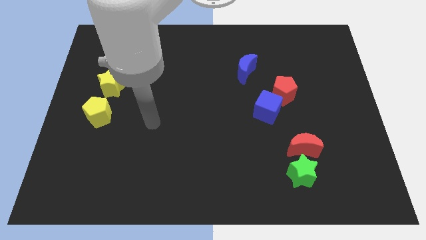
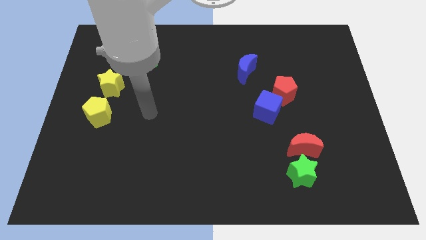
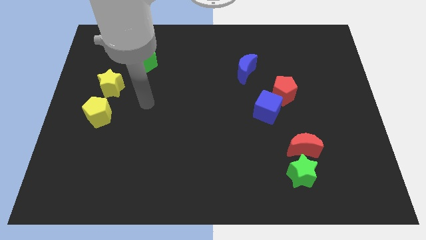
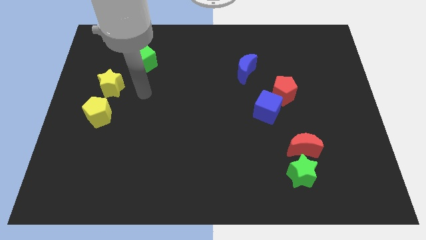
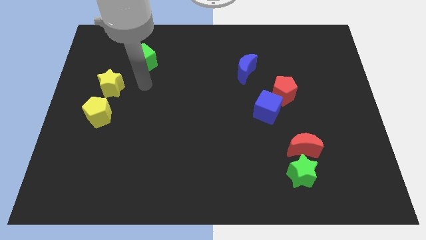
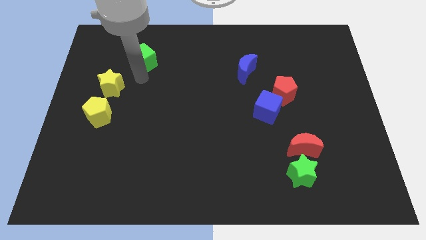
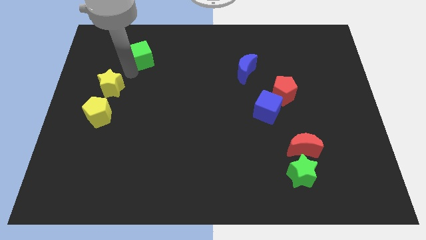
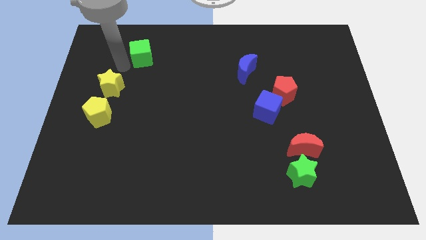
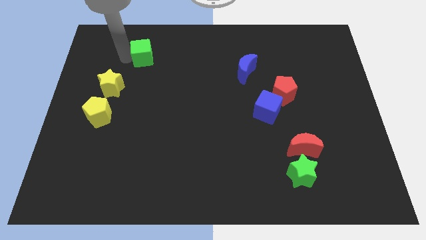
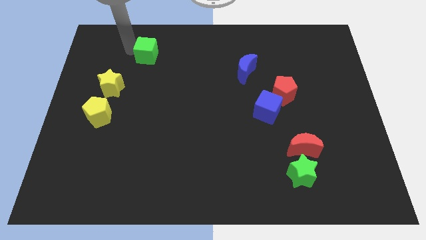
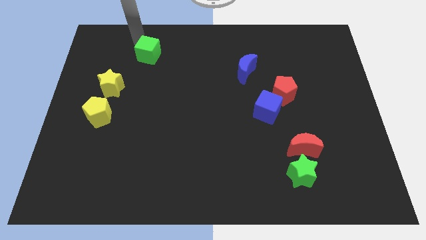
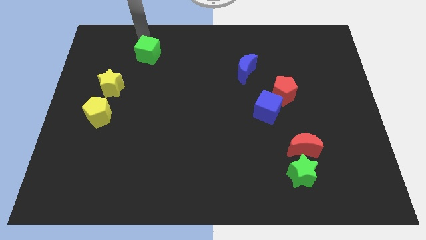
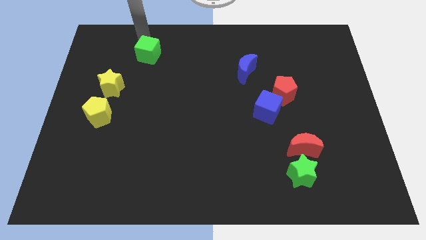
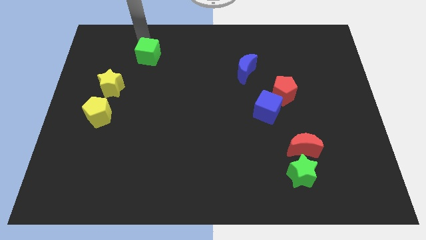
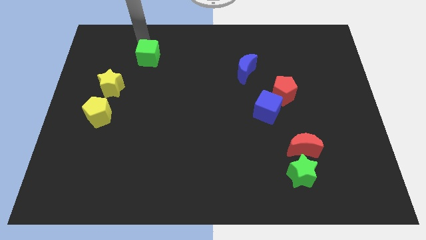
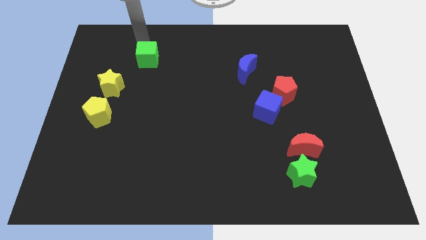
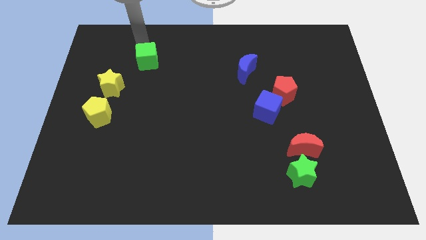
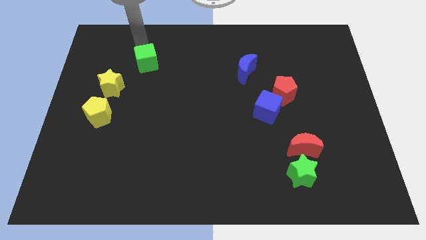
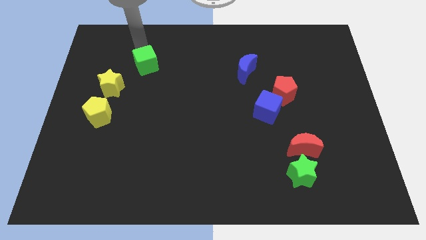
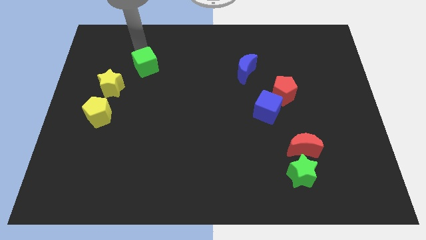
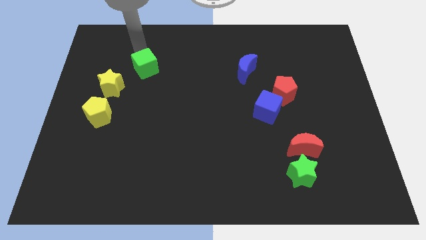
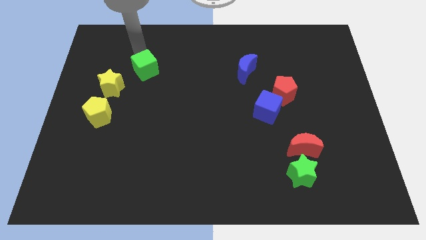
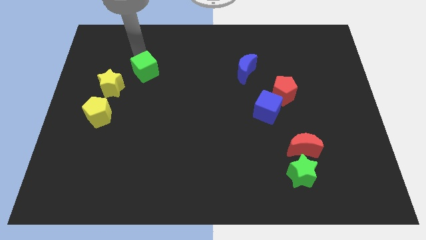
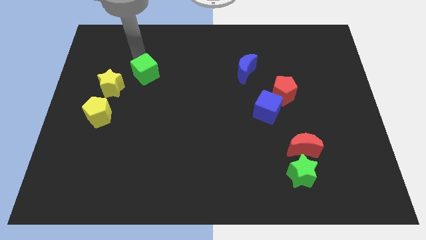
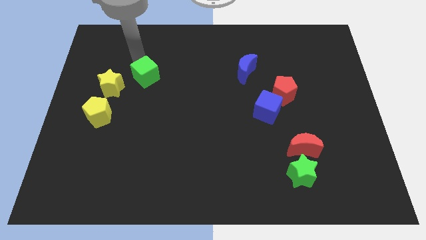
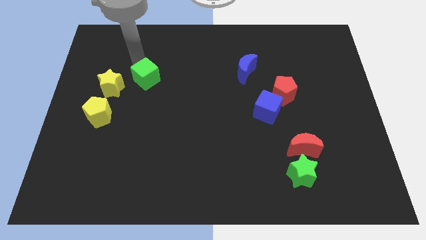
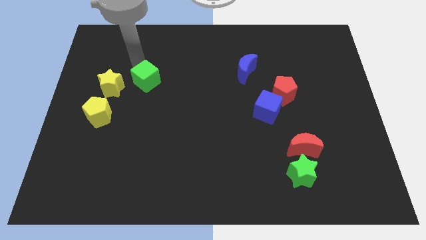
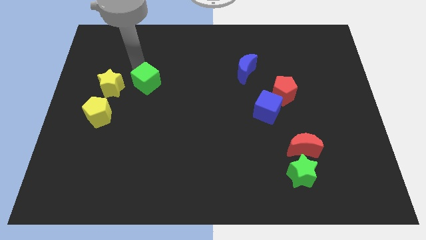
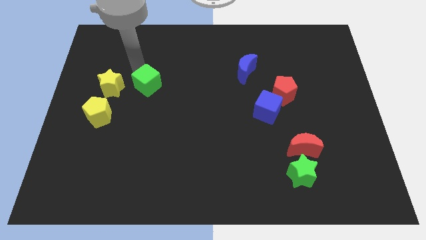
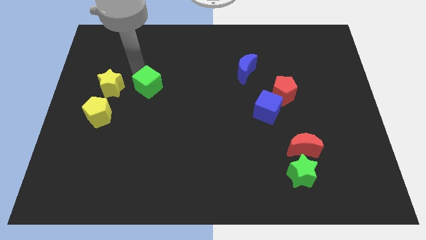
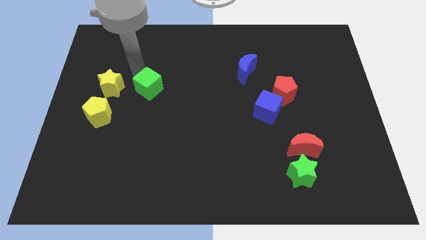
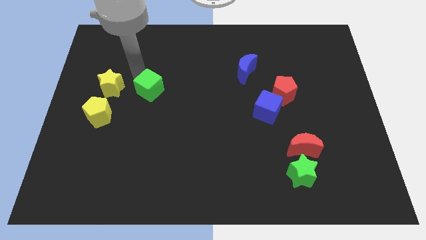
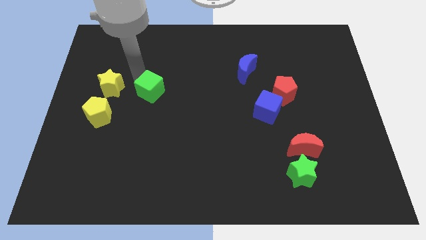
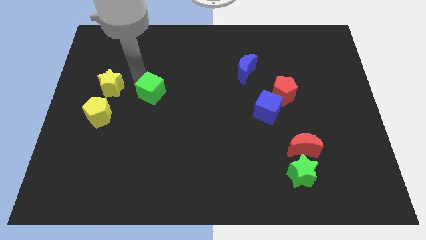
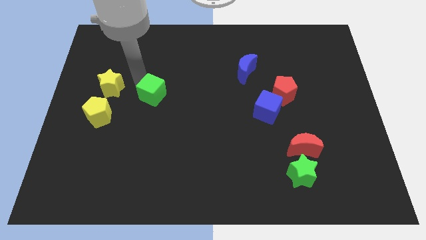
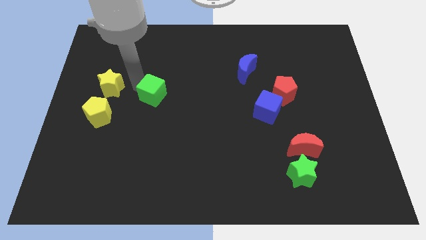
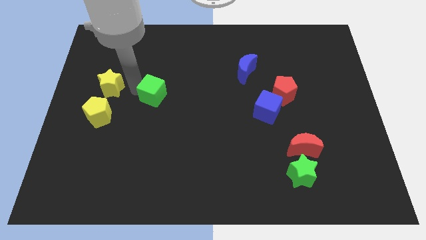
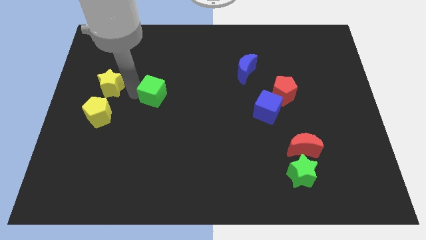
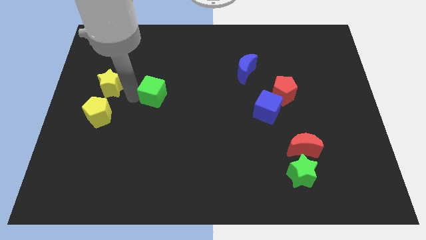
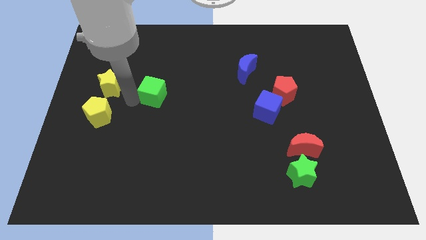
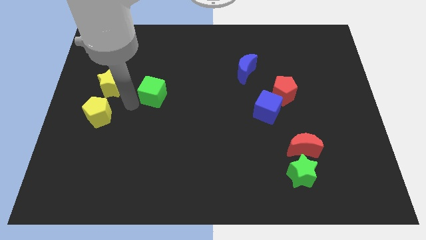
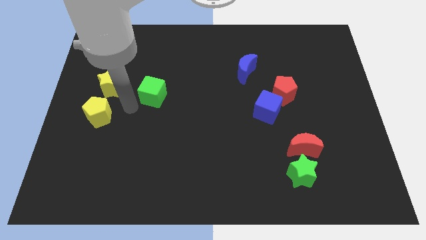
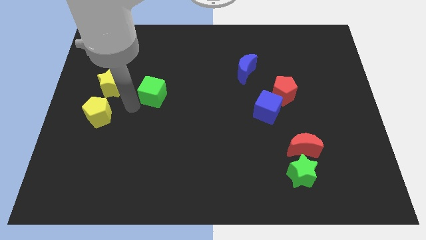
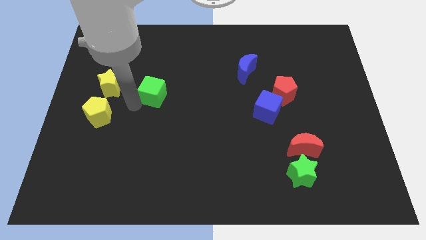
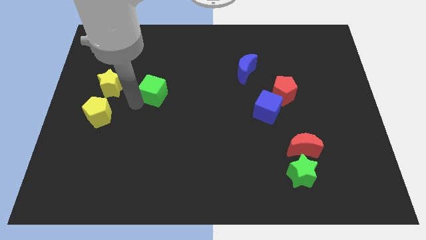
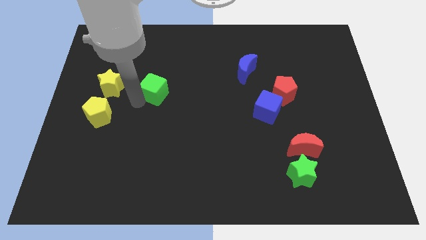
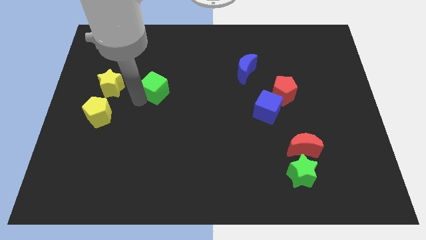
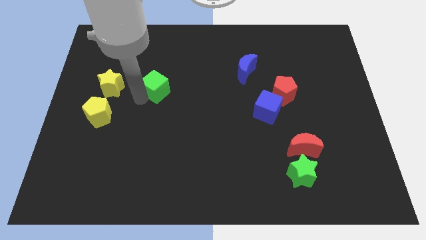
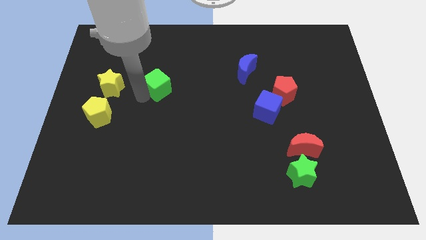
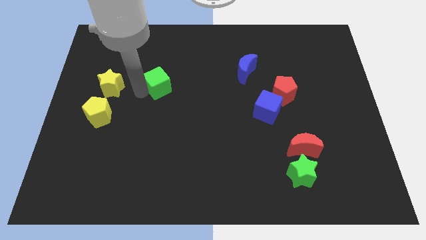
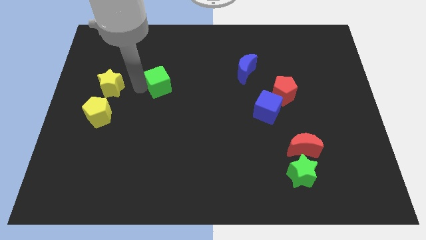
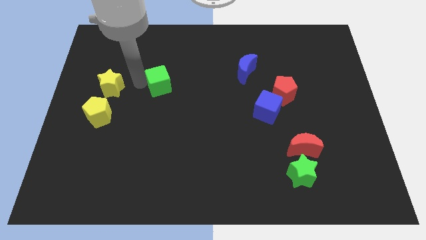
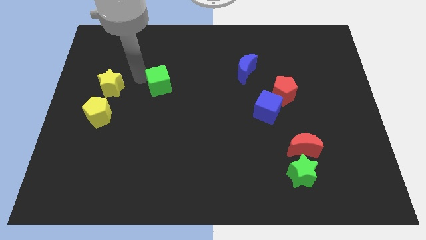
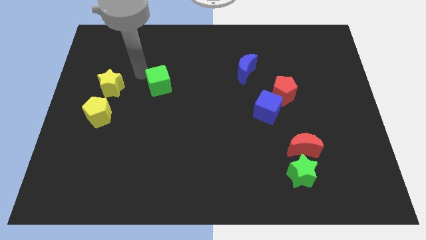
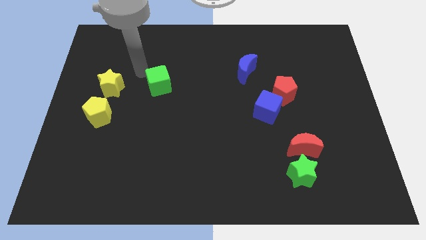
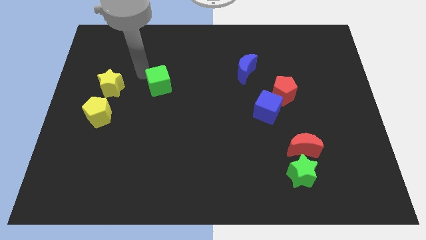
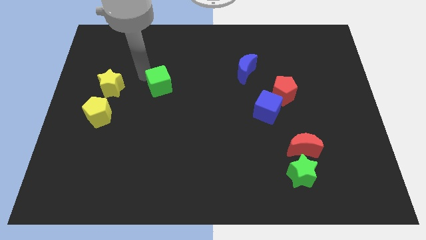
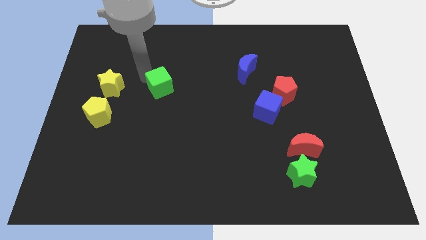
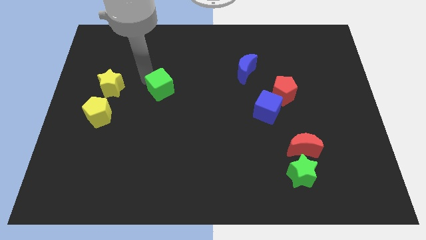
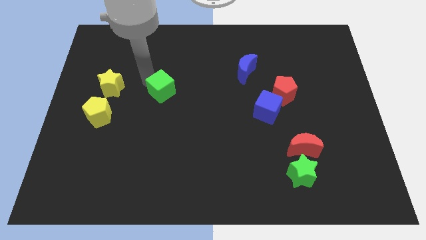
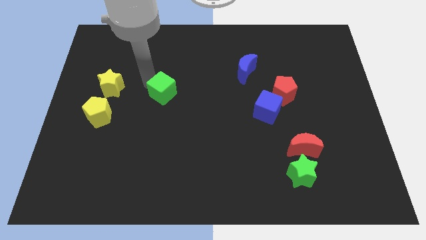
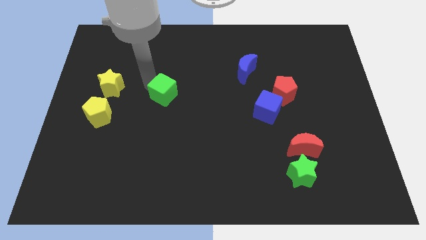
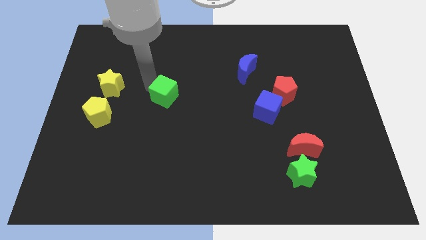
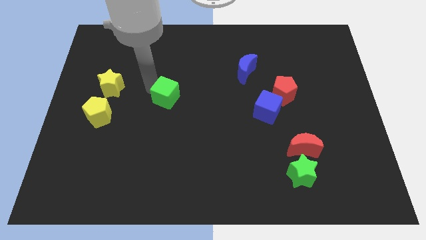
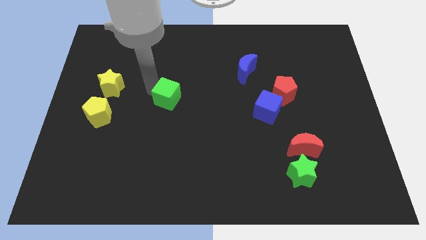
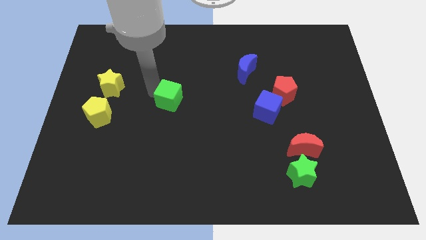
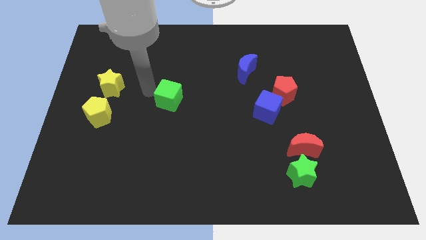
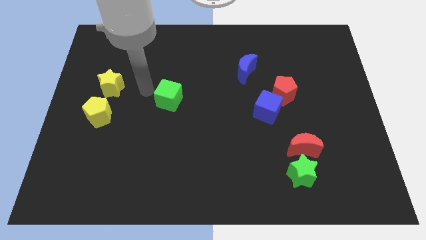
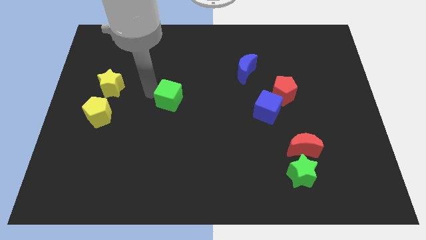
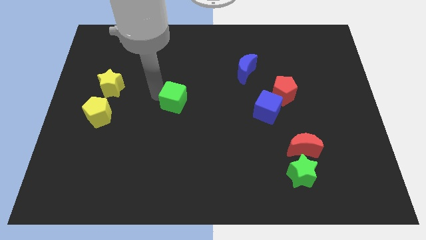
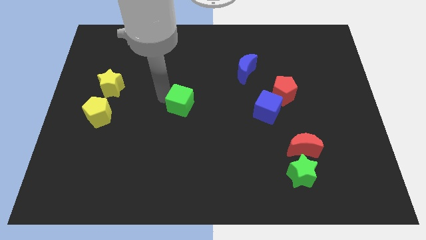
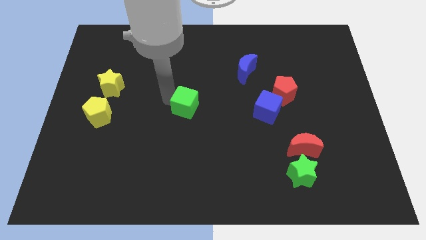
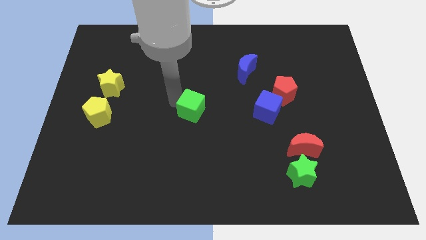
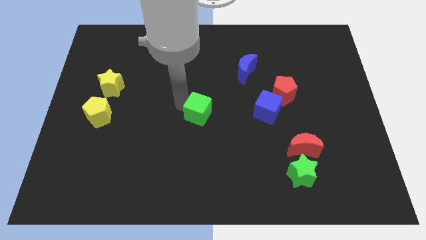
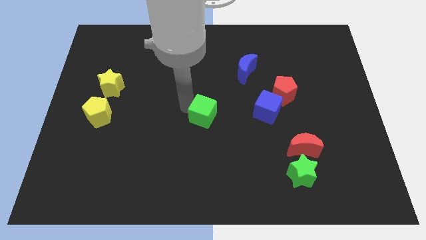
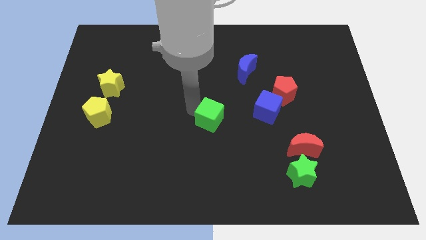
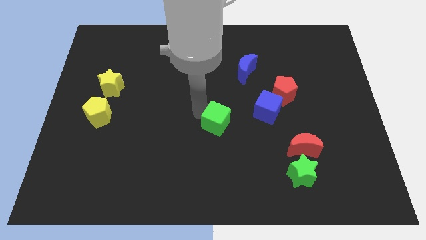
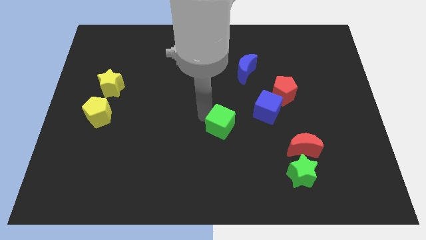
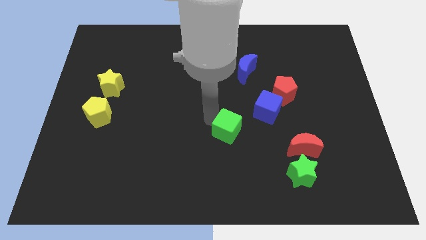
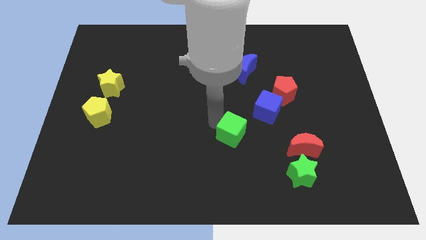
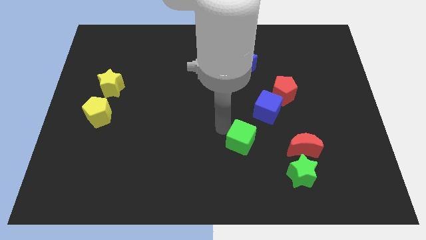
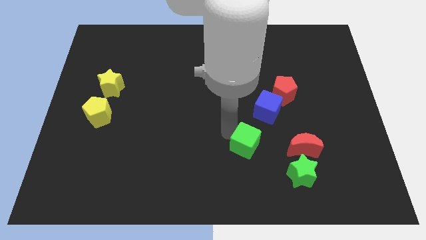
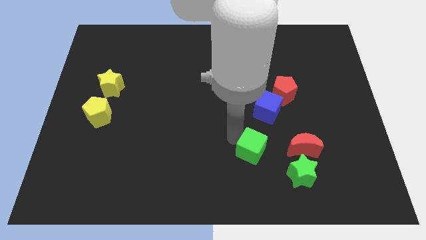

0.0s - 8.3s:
move the green cube to the bottom of the blue cube
